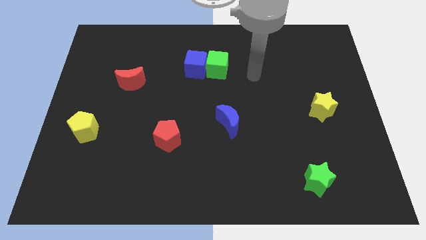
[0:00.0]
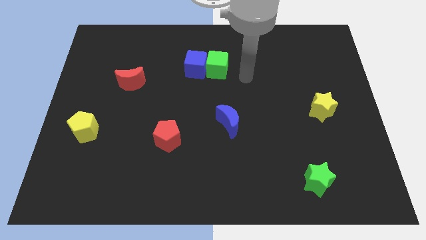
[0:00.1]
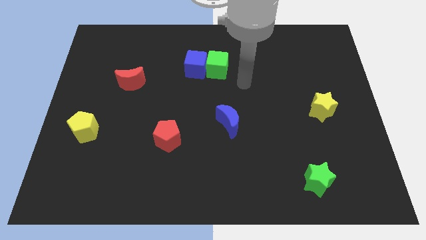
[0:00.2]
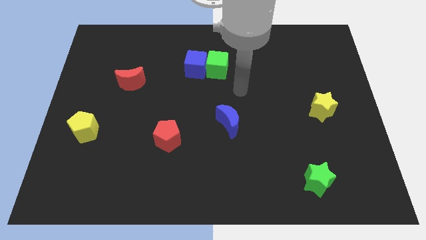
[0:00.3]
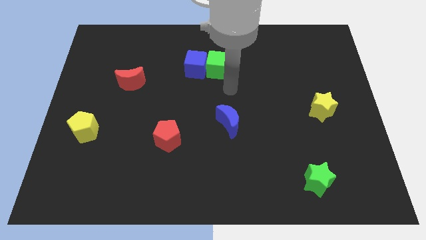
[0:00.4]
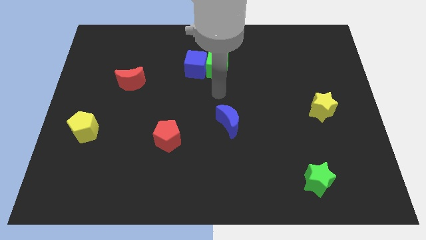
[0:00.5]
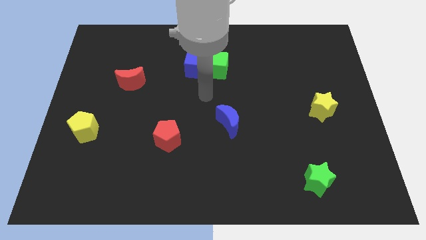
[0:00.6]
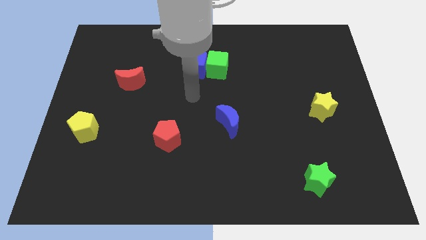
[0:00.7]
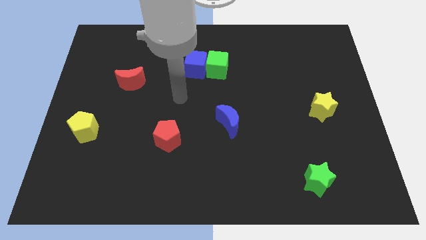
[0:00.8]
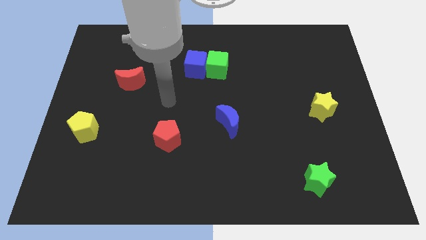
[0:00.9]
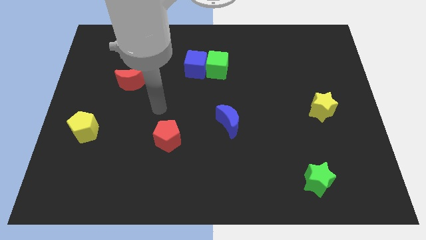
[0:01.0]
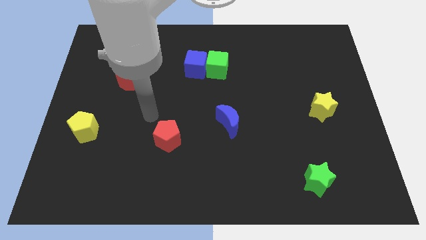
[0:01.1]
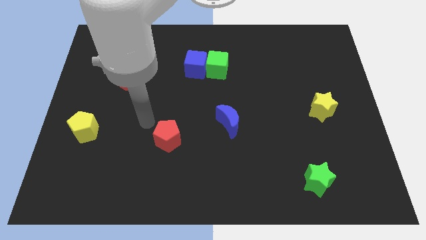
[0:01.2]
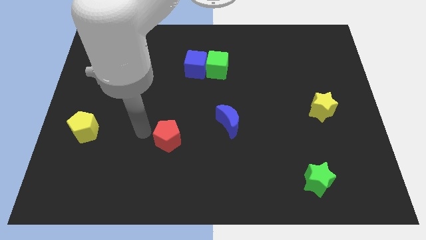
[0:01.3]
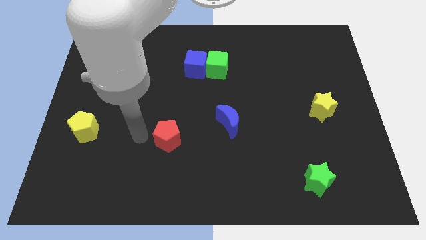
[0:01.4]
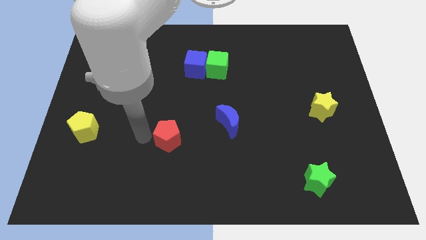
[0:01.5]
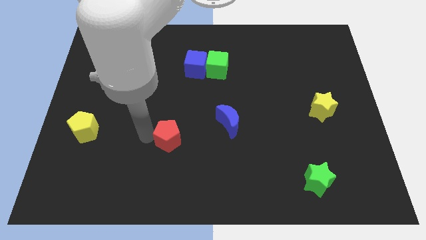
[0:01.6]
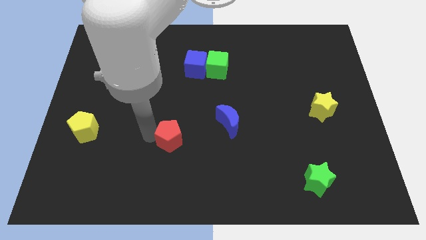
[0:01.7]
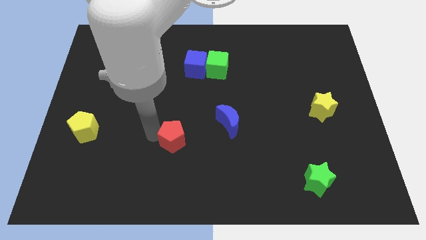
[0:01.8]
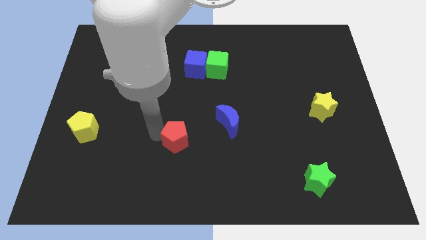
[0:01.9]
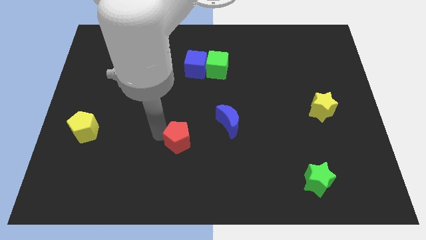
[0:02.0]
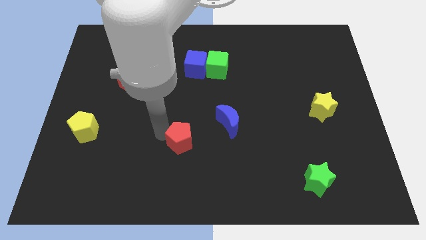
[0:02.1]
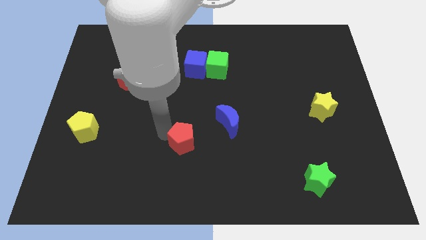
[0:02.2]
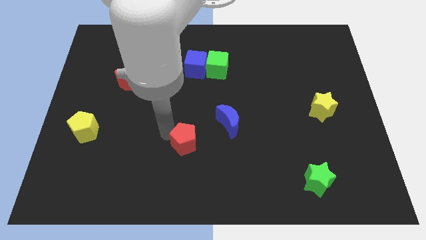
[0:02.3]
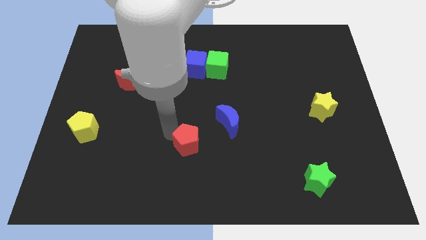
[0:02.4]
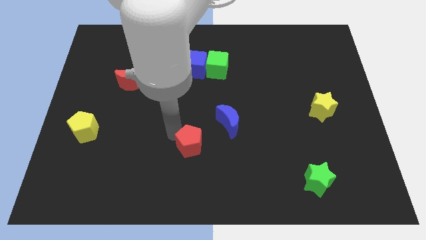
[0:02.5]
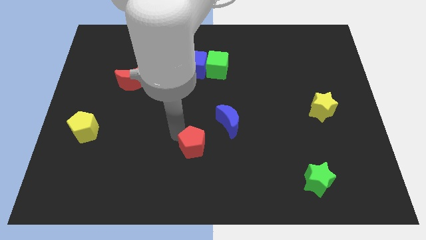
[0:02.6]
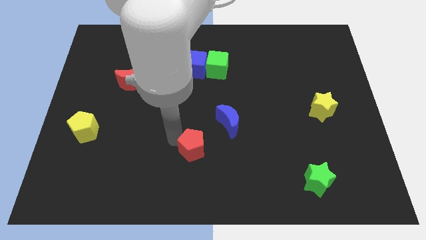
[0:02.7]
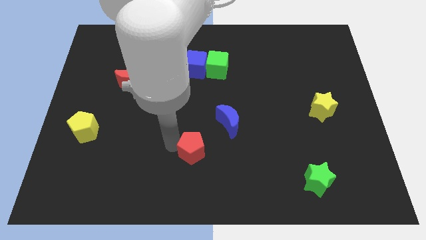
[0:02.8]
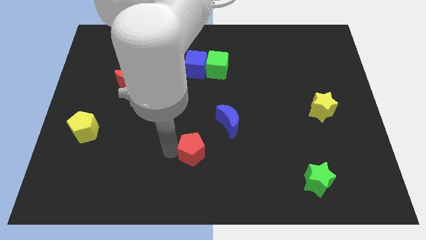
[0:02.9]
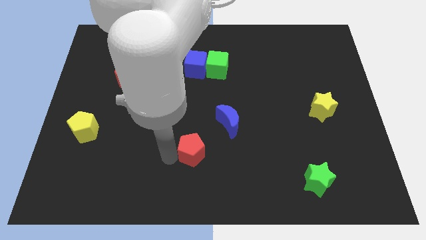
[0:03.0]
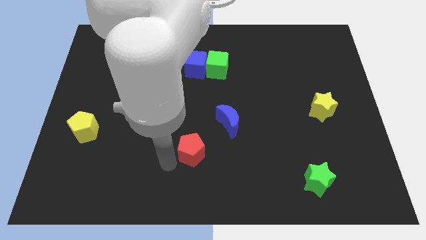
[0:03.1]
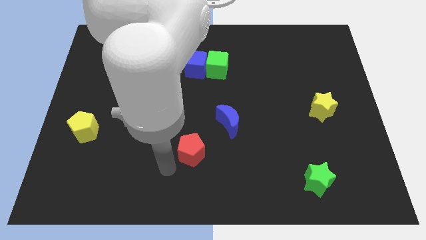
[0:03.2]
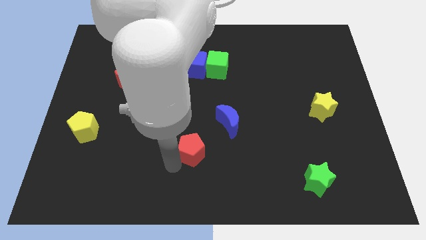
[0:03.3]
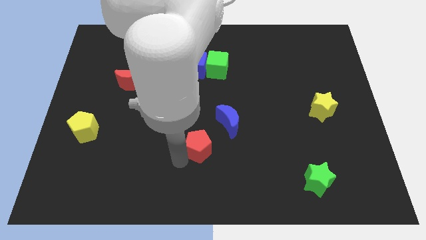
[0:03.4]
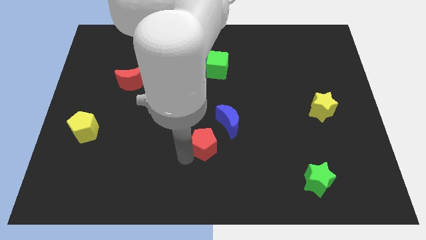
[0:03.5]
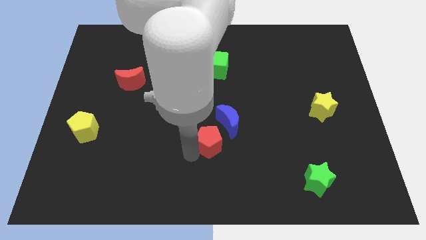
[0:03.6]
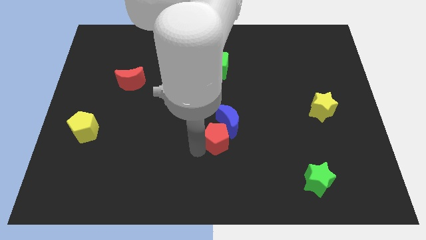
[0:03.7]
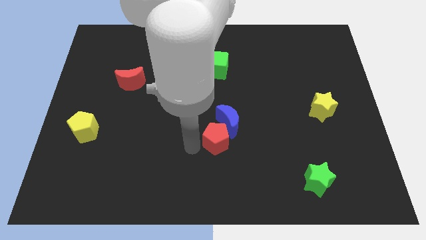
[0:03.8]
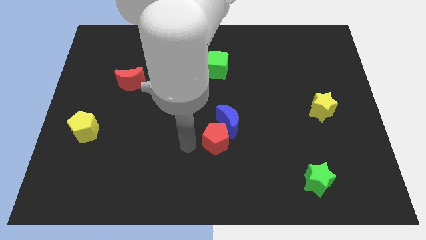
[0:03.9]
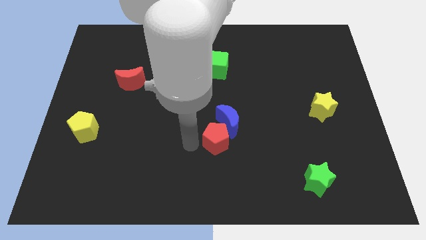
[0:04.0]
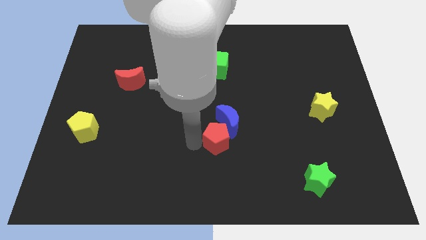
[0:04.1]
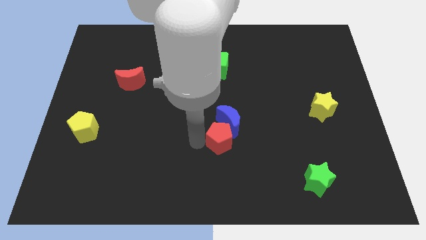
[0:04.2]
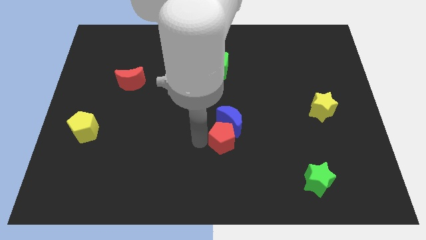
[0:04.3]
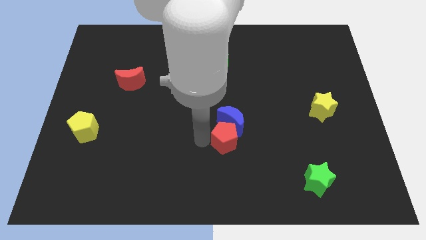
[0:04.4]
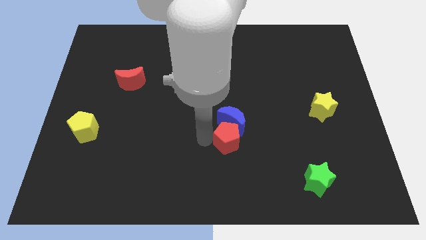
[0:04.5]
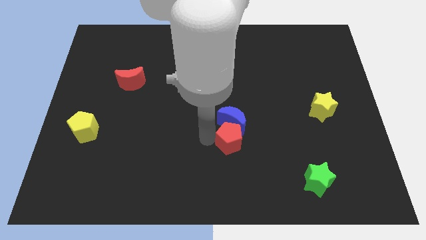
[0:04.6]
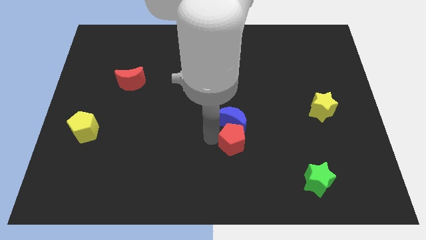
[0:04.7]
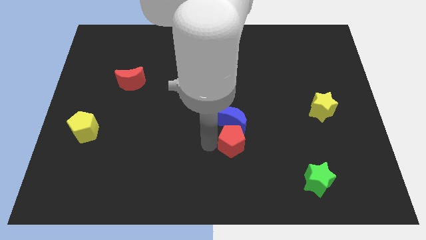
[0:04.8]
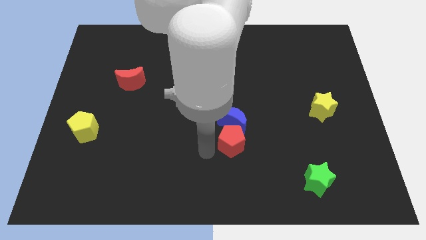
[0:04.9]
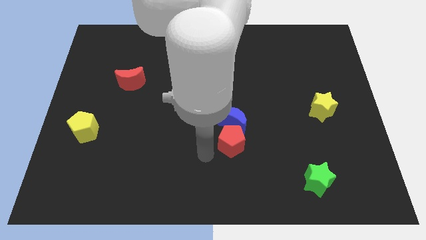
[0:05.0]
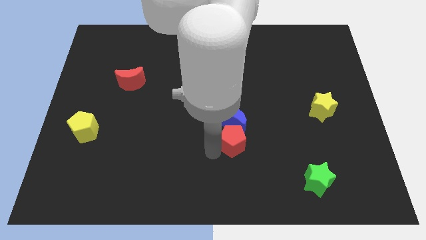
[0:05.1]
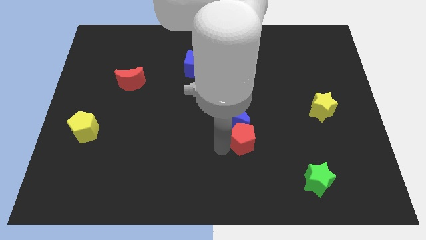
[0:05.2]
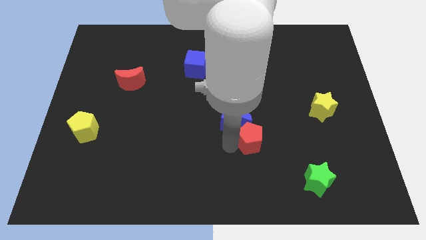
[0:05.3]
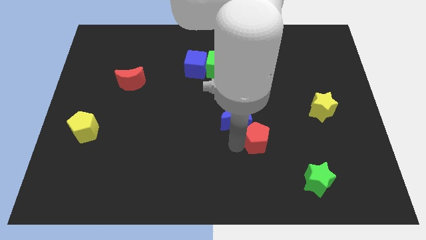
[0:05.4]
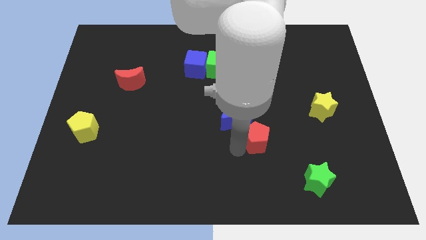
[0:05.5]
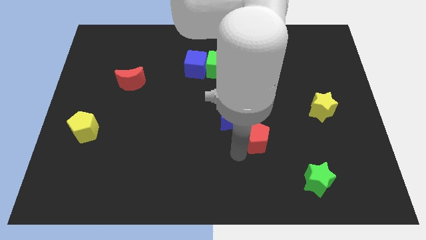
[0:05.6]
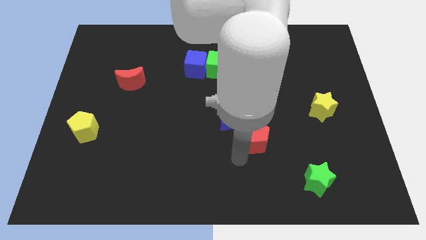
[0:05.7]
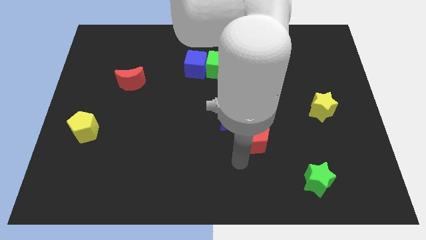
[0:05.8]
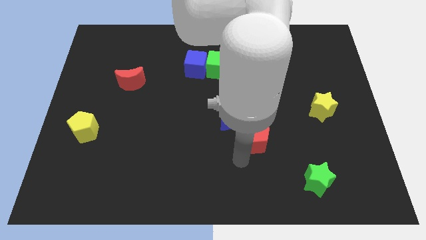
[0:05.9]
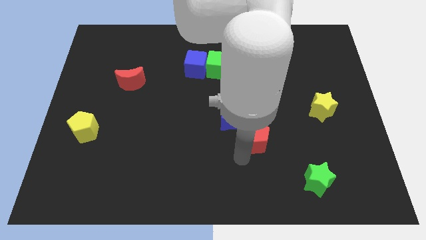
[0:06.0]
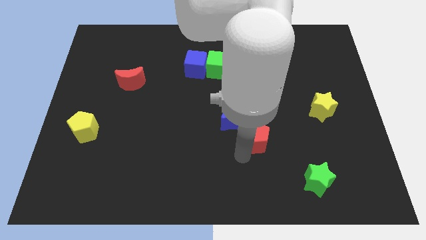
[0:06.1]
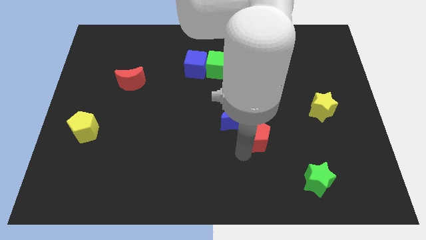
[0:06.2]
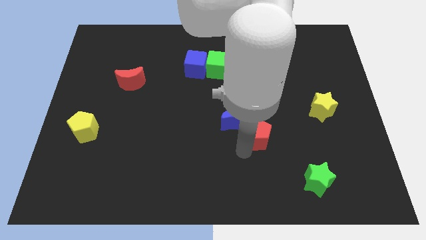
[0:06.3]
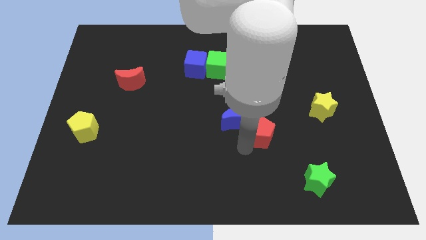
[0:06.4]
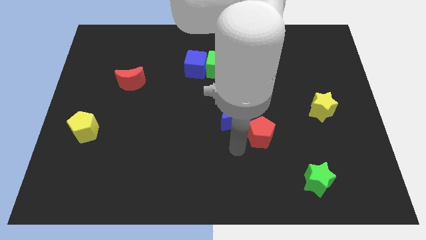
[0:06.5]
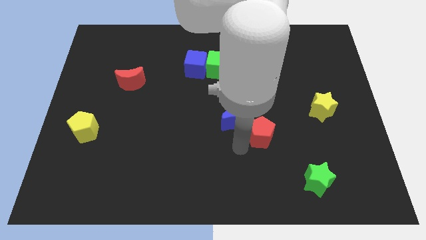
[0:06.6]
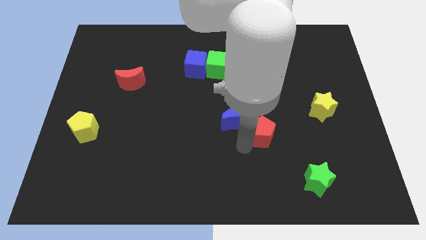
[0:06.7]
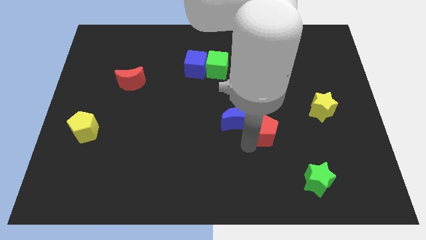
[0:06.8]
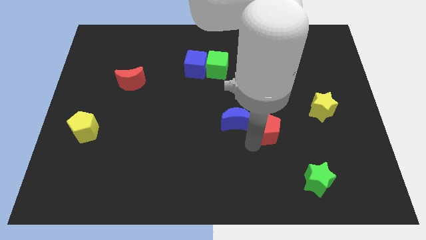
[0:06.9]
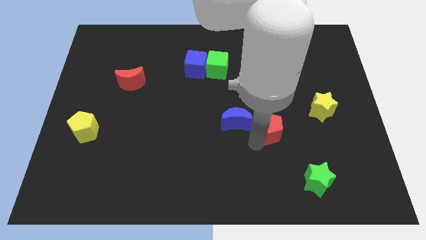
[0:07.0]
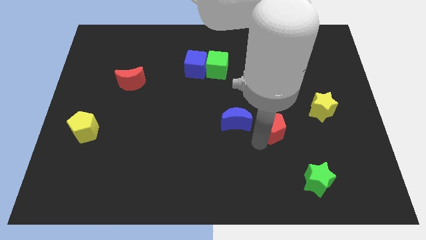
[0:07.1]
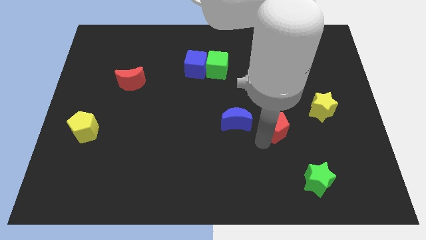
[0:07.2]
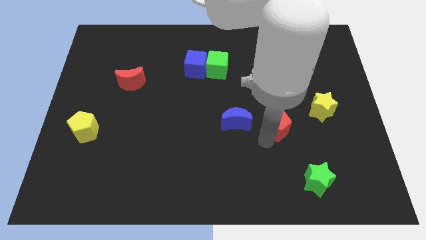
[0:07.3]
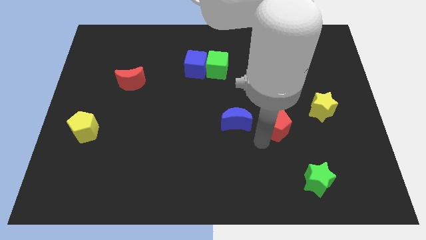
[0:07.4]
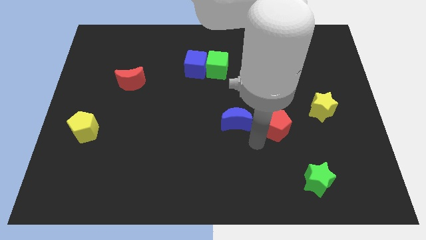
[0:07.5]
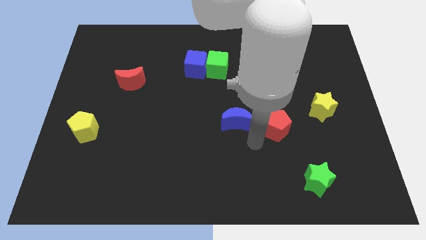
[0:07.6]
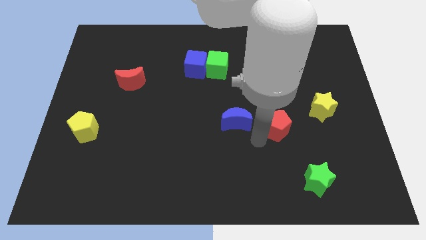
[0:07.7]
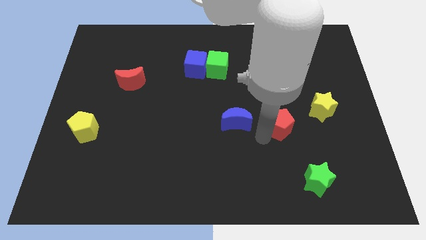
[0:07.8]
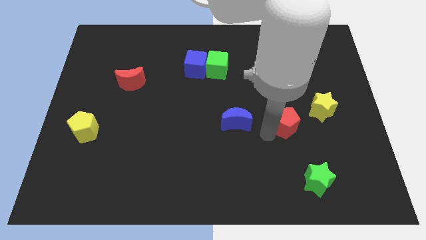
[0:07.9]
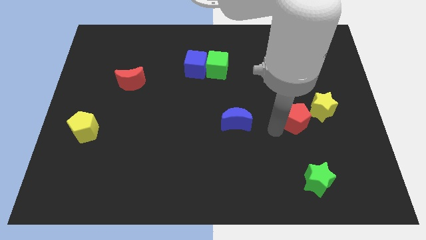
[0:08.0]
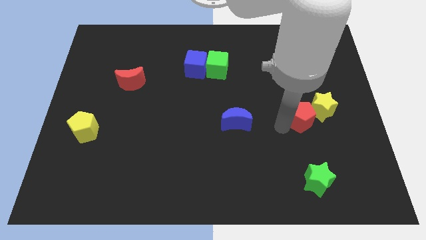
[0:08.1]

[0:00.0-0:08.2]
move the red pentagon to the yellow star
